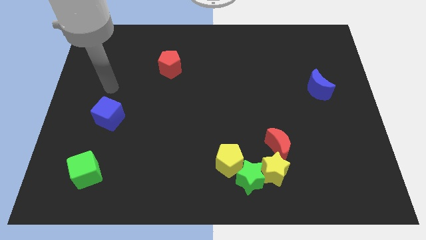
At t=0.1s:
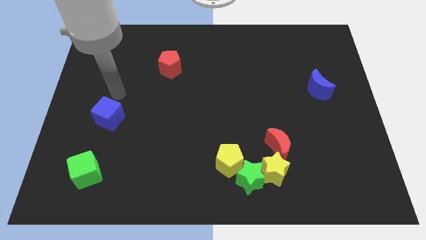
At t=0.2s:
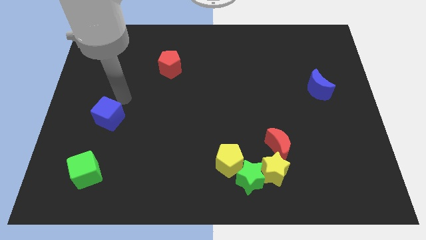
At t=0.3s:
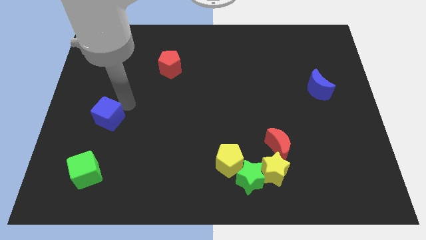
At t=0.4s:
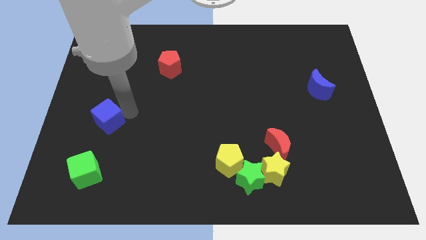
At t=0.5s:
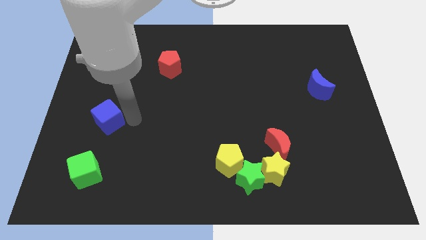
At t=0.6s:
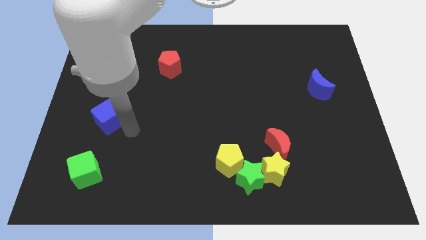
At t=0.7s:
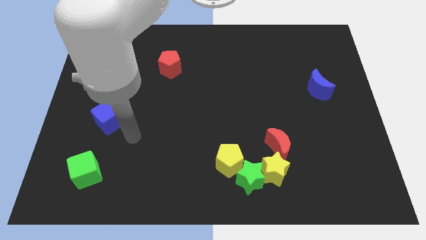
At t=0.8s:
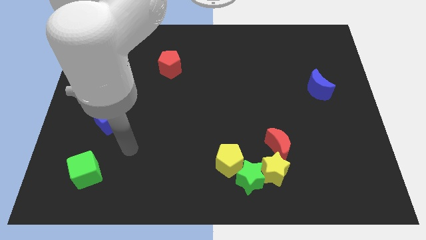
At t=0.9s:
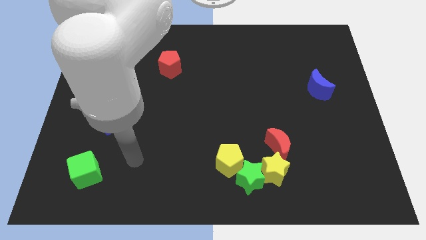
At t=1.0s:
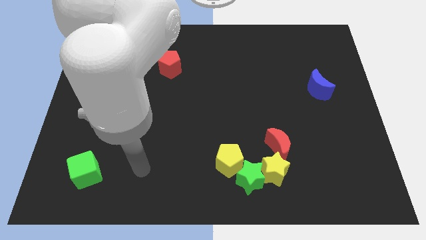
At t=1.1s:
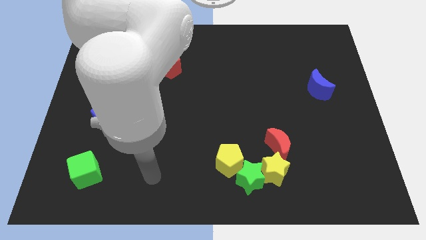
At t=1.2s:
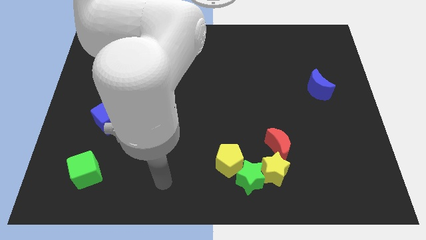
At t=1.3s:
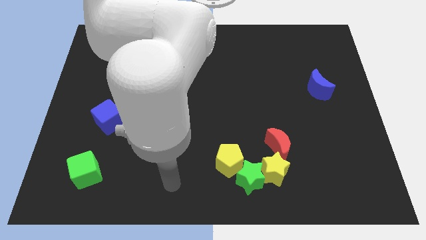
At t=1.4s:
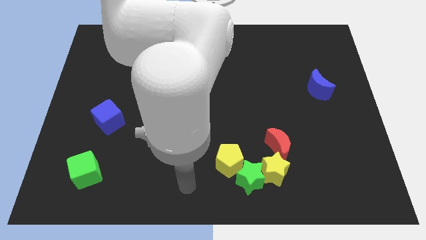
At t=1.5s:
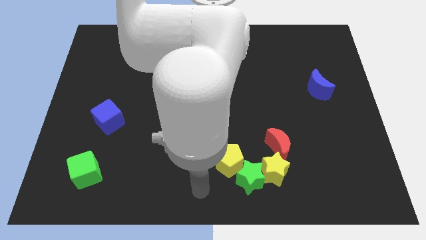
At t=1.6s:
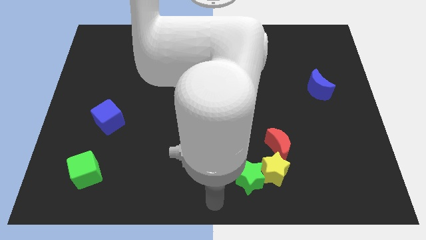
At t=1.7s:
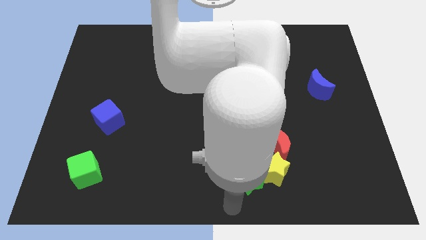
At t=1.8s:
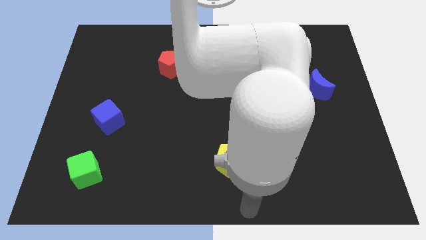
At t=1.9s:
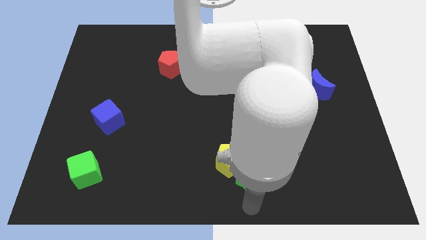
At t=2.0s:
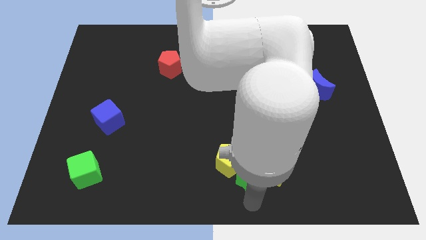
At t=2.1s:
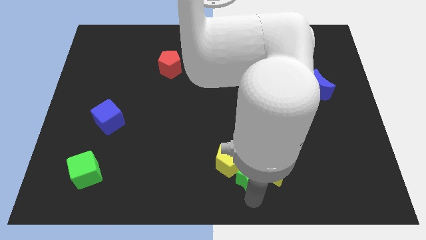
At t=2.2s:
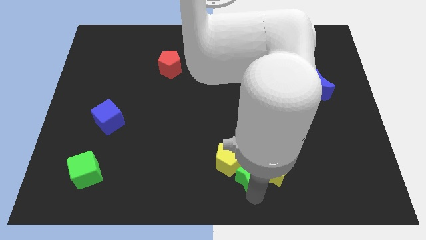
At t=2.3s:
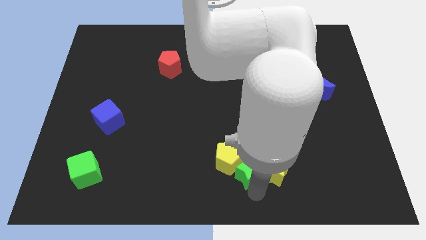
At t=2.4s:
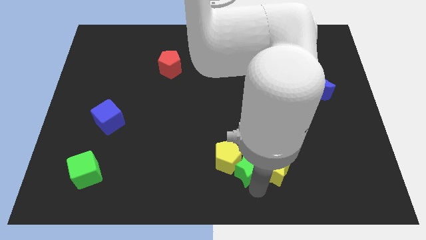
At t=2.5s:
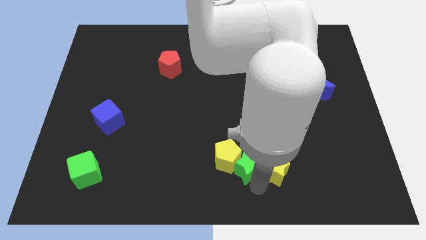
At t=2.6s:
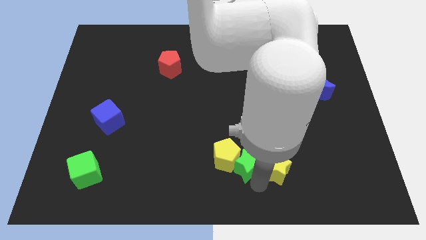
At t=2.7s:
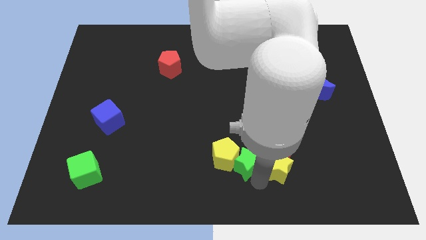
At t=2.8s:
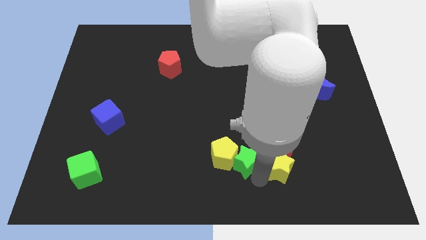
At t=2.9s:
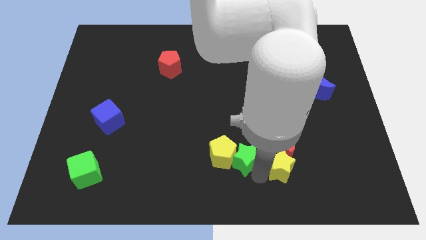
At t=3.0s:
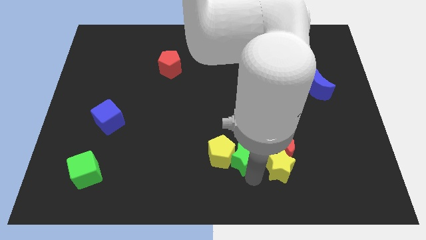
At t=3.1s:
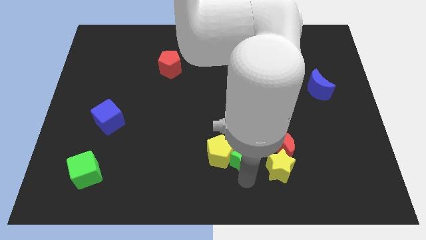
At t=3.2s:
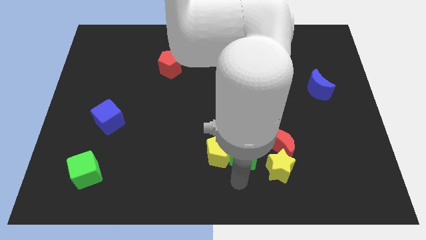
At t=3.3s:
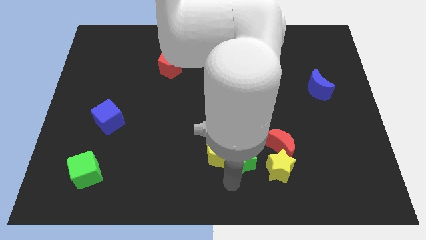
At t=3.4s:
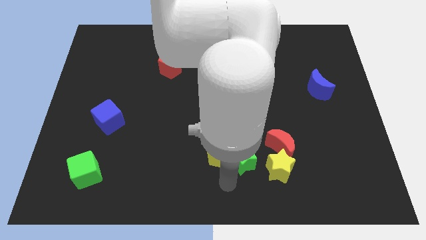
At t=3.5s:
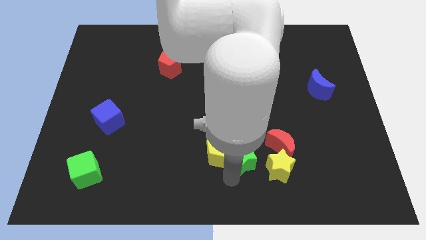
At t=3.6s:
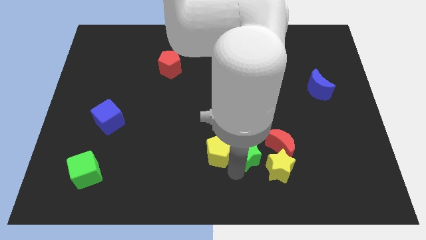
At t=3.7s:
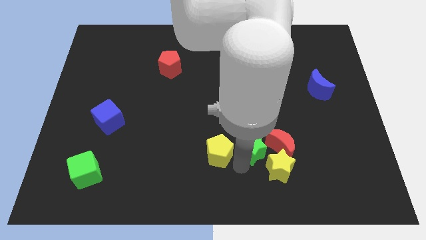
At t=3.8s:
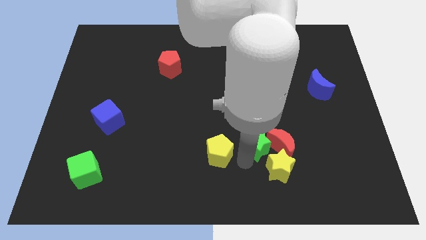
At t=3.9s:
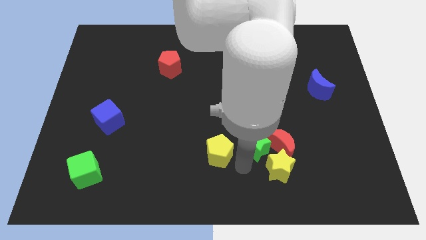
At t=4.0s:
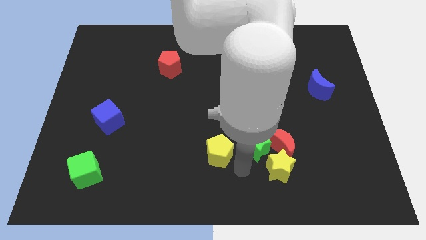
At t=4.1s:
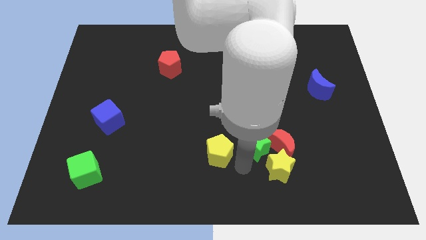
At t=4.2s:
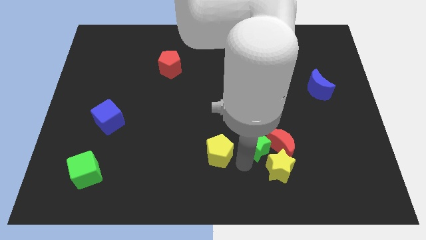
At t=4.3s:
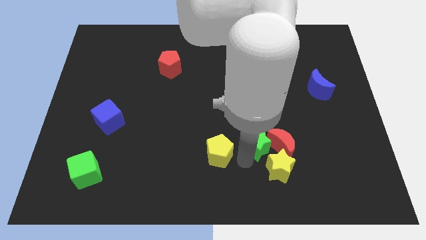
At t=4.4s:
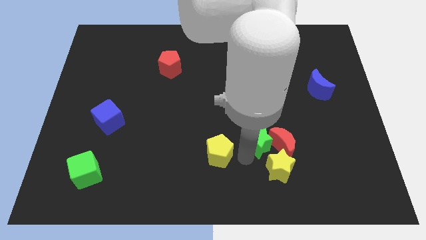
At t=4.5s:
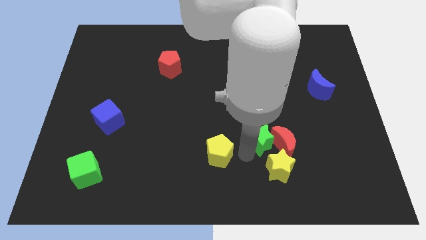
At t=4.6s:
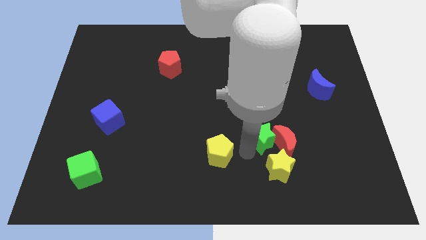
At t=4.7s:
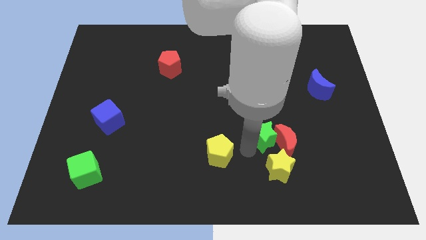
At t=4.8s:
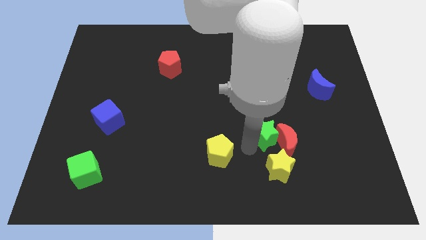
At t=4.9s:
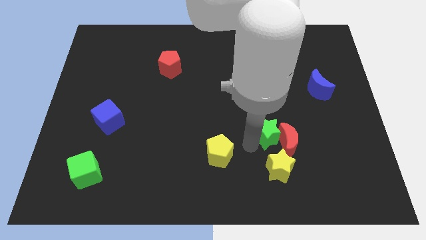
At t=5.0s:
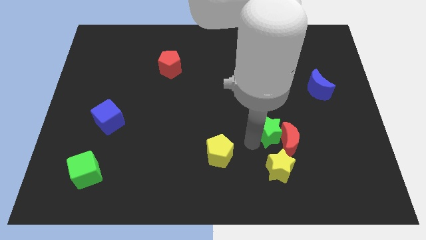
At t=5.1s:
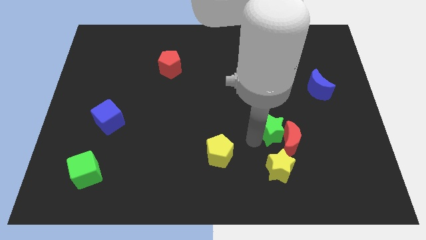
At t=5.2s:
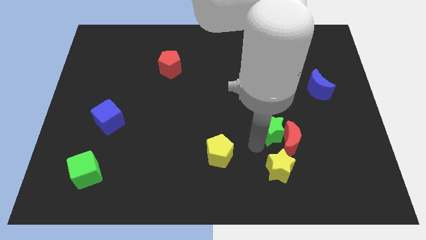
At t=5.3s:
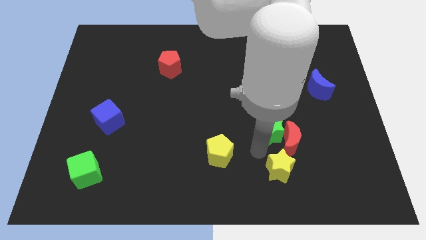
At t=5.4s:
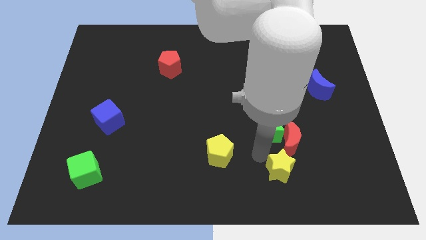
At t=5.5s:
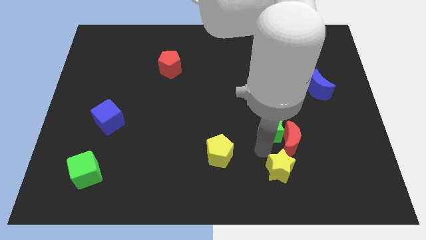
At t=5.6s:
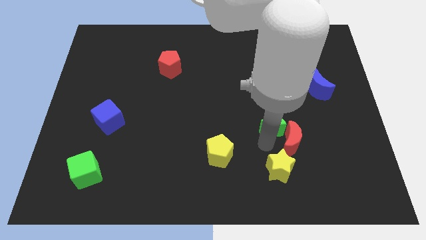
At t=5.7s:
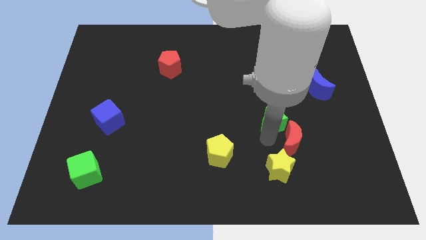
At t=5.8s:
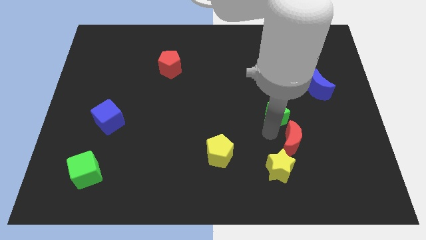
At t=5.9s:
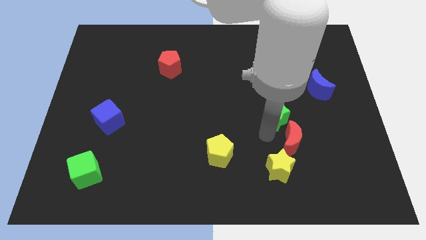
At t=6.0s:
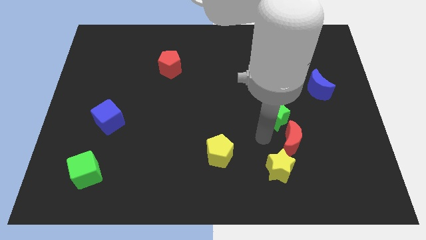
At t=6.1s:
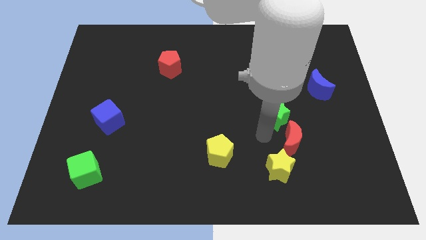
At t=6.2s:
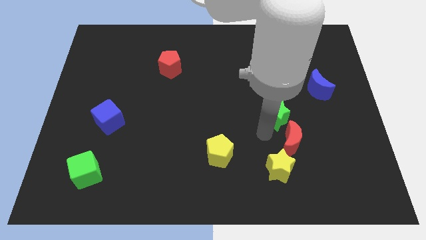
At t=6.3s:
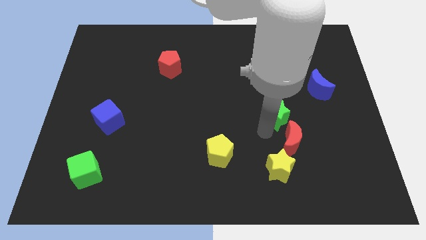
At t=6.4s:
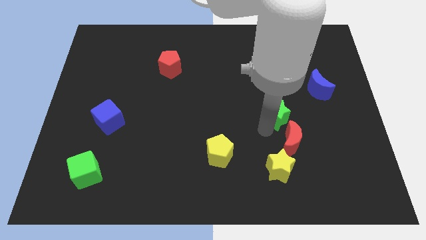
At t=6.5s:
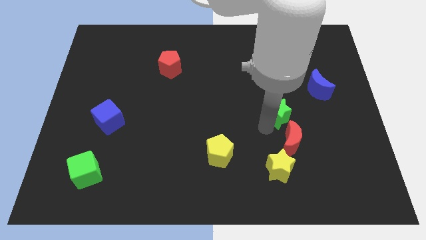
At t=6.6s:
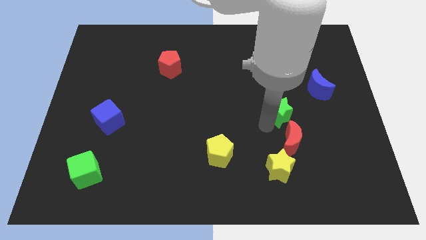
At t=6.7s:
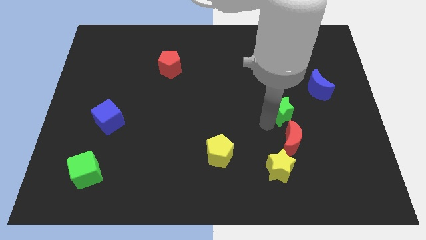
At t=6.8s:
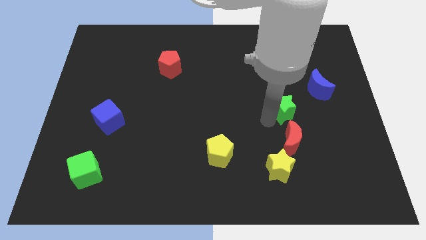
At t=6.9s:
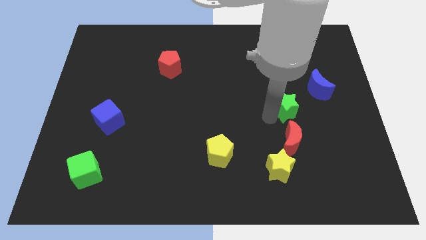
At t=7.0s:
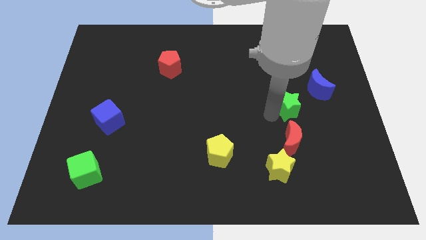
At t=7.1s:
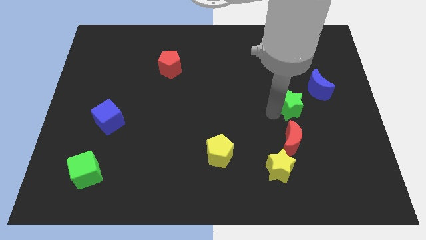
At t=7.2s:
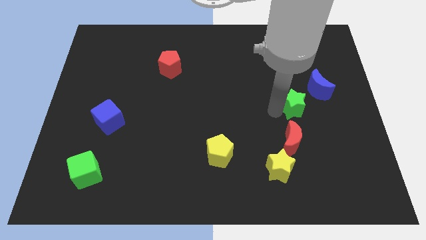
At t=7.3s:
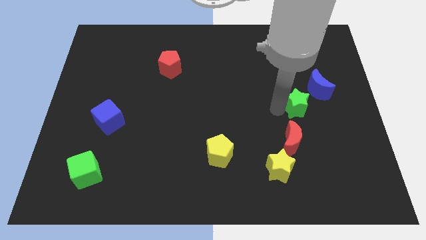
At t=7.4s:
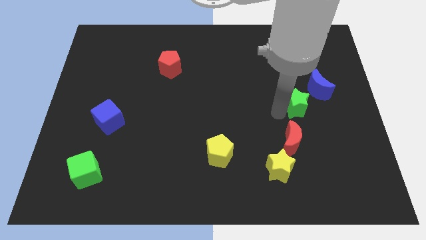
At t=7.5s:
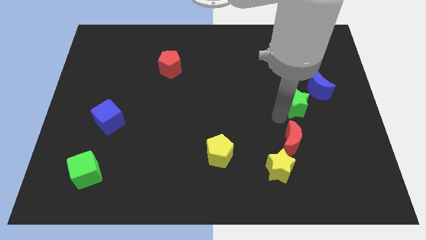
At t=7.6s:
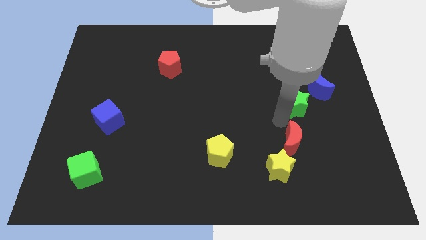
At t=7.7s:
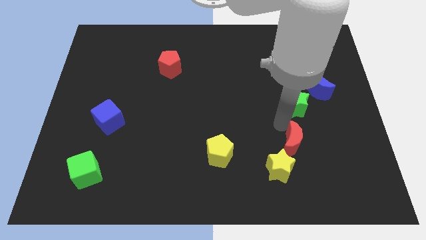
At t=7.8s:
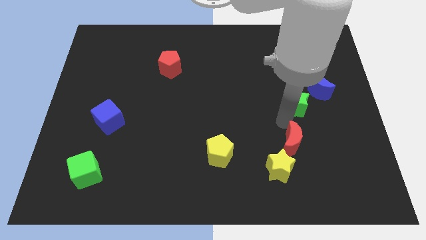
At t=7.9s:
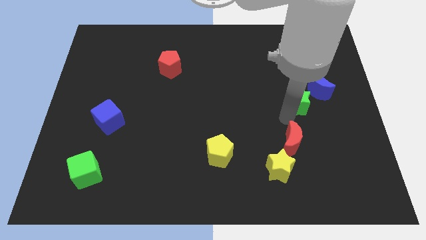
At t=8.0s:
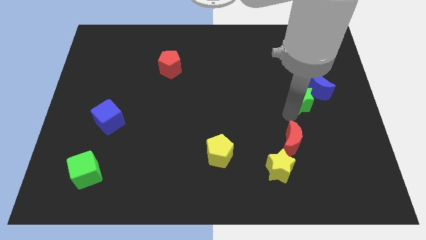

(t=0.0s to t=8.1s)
slide the green star close to the blue moon
